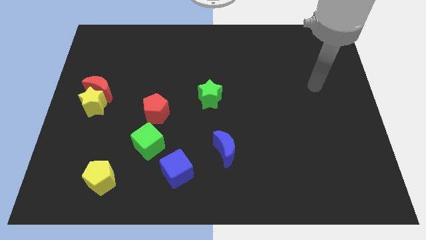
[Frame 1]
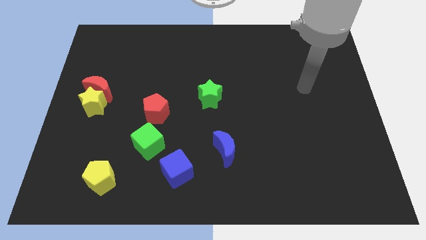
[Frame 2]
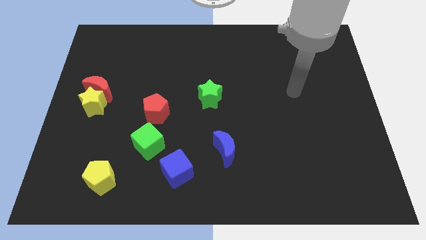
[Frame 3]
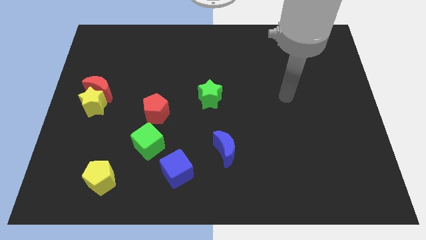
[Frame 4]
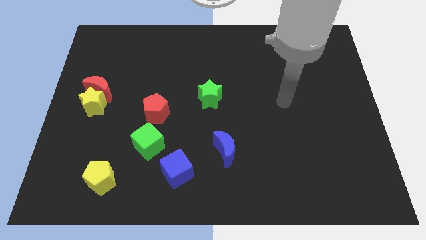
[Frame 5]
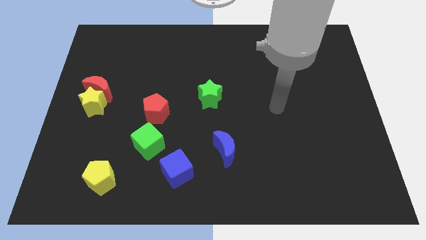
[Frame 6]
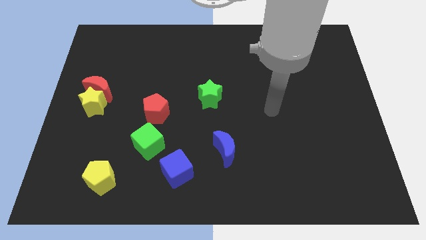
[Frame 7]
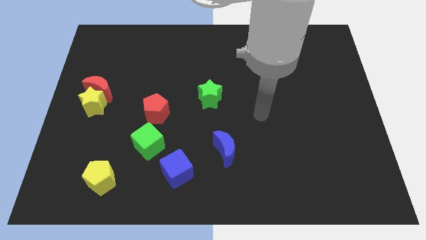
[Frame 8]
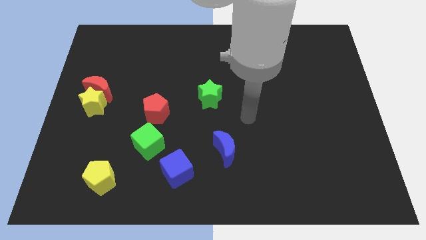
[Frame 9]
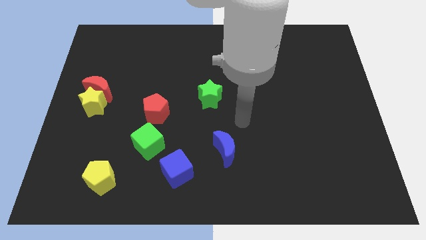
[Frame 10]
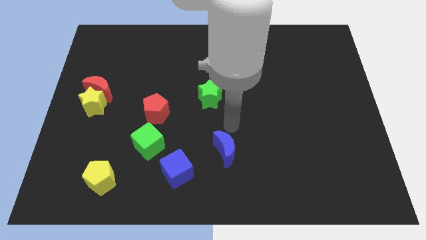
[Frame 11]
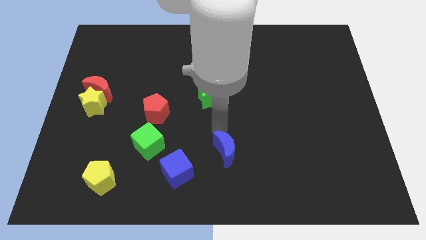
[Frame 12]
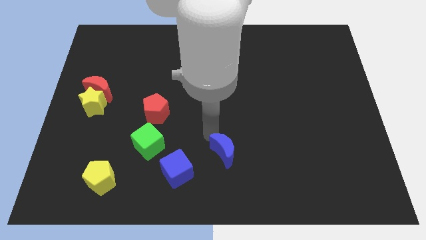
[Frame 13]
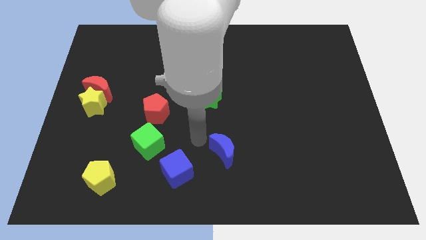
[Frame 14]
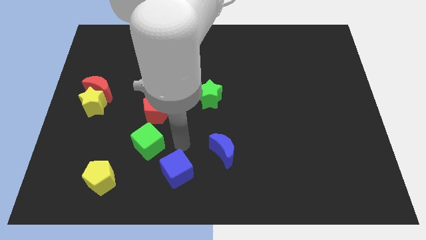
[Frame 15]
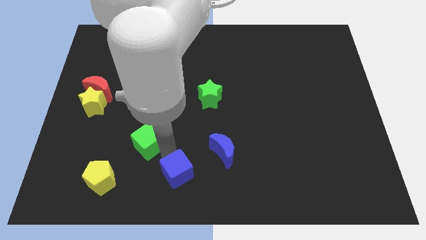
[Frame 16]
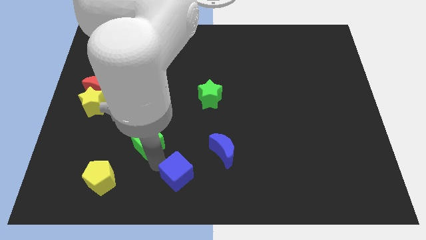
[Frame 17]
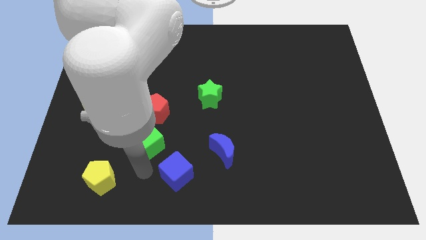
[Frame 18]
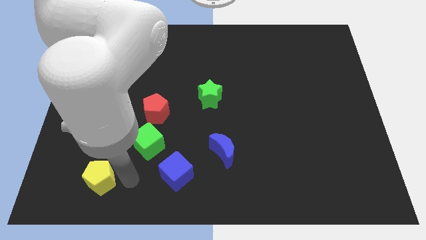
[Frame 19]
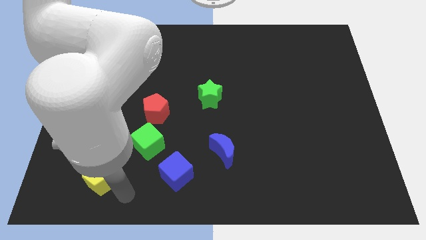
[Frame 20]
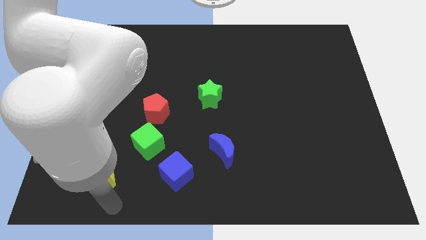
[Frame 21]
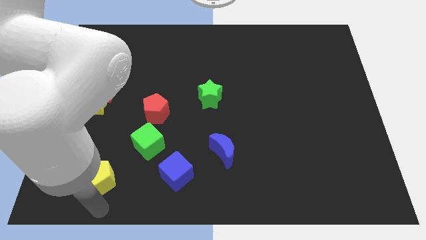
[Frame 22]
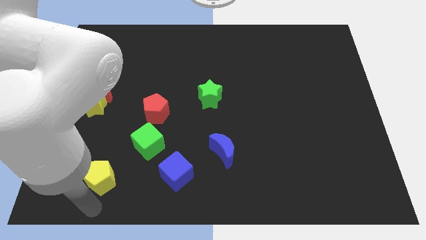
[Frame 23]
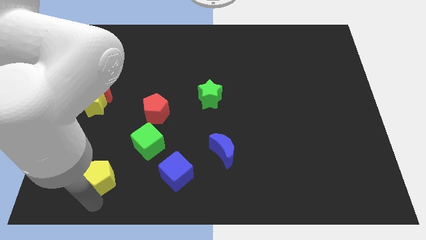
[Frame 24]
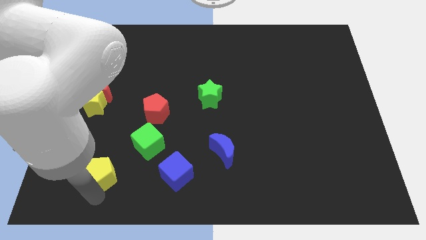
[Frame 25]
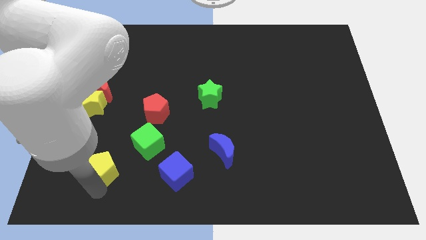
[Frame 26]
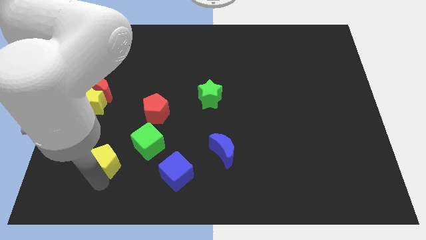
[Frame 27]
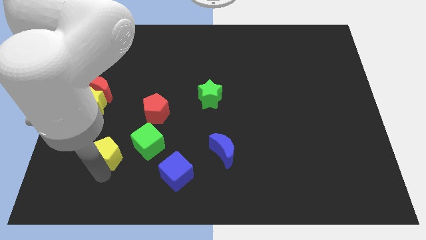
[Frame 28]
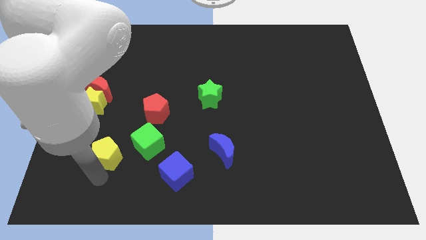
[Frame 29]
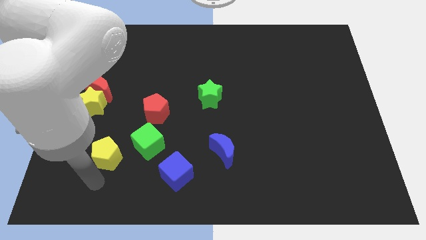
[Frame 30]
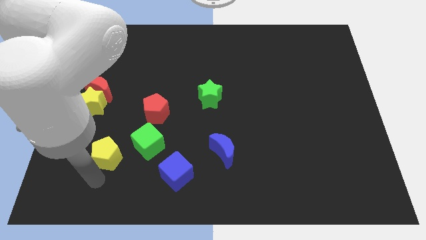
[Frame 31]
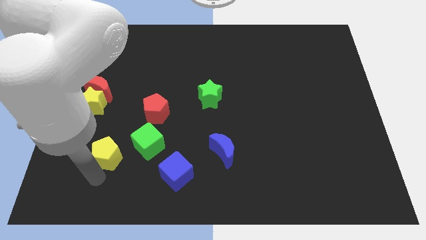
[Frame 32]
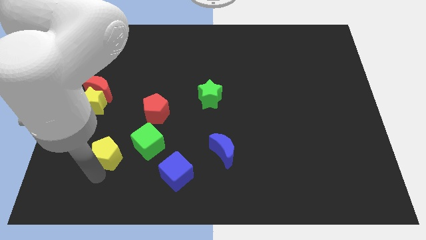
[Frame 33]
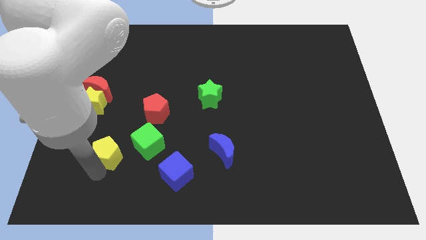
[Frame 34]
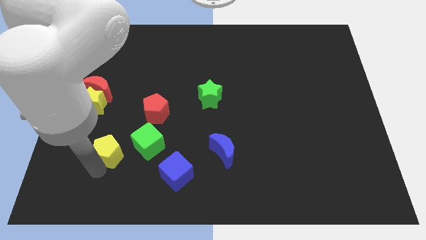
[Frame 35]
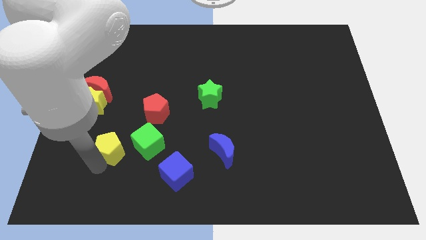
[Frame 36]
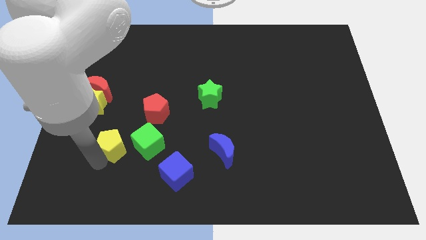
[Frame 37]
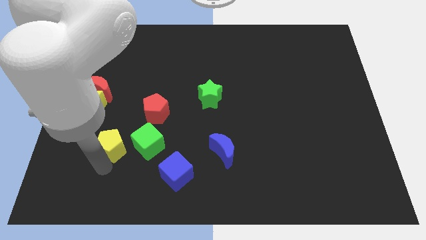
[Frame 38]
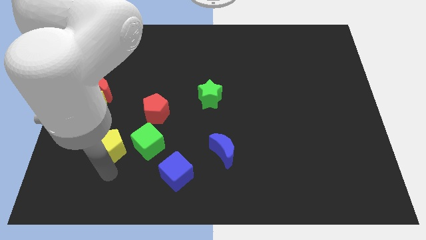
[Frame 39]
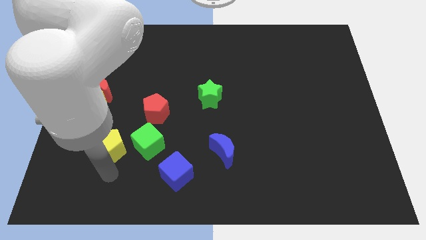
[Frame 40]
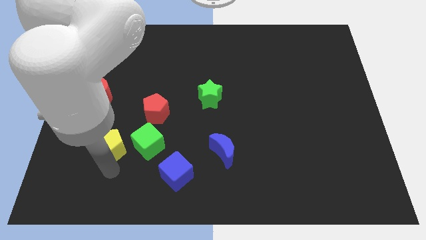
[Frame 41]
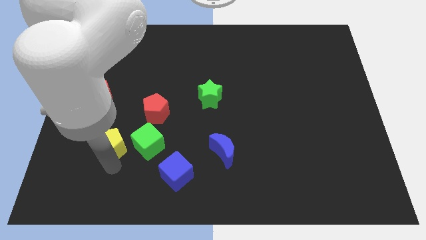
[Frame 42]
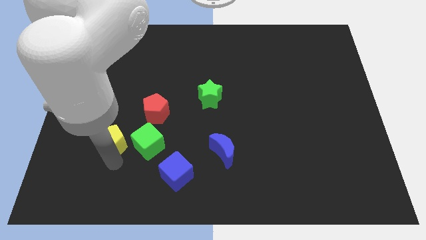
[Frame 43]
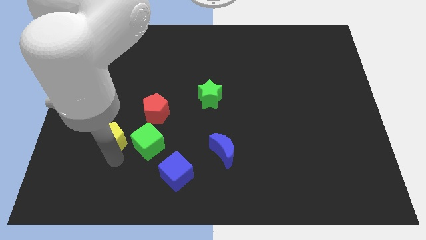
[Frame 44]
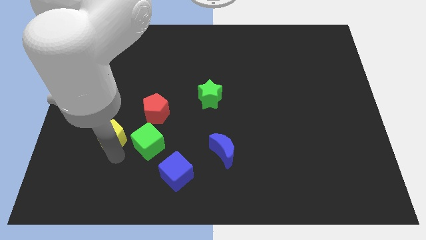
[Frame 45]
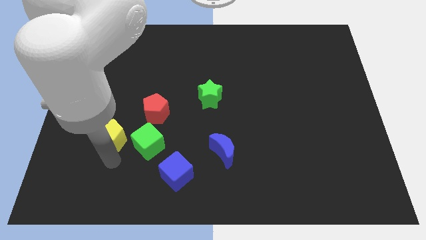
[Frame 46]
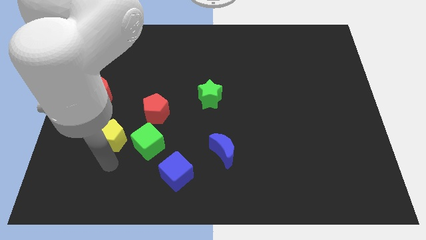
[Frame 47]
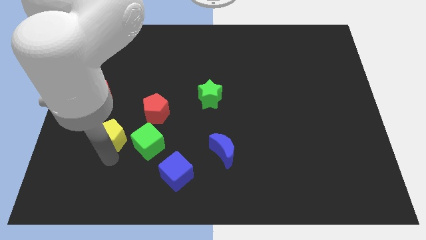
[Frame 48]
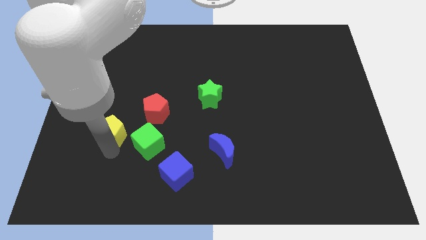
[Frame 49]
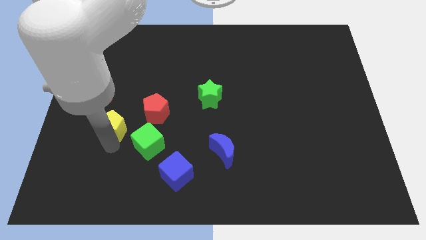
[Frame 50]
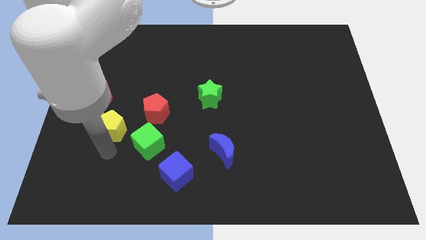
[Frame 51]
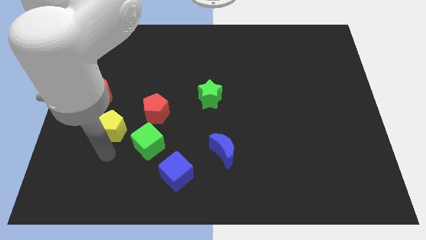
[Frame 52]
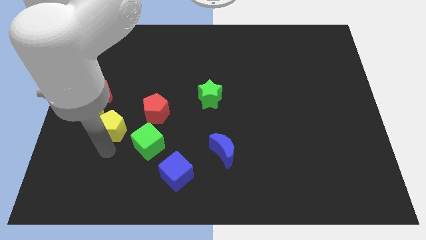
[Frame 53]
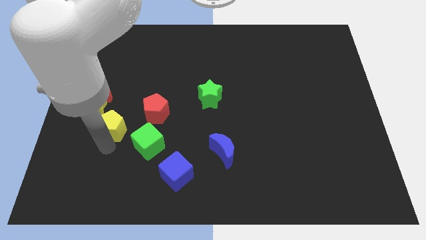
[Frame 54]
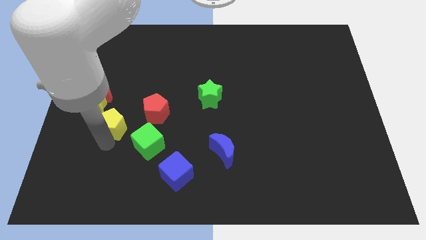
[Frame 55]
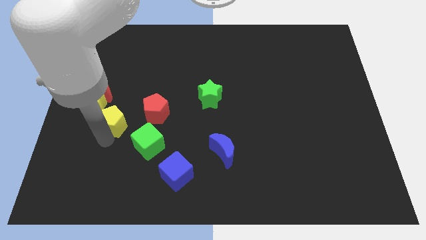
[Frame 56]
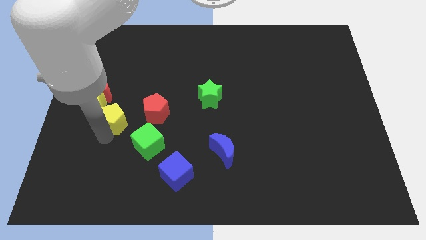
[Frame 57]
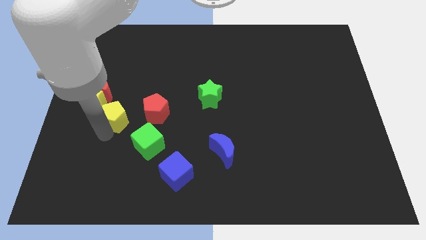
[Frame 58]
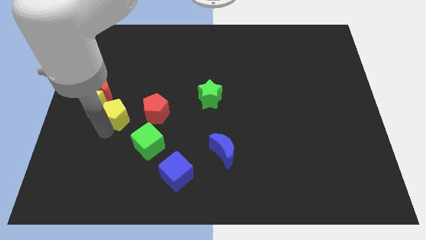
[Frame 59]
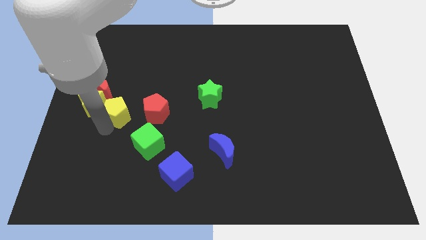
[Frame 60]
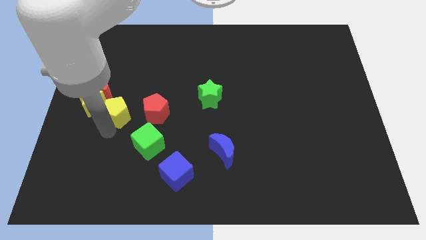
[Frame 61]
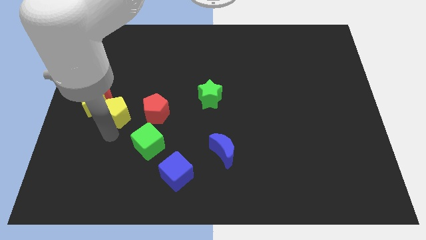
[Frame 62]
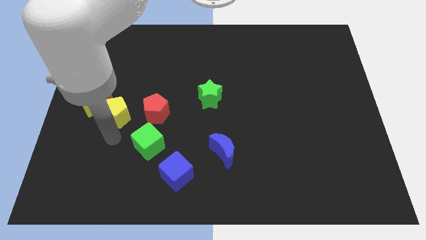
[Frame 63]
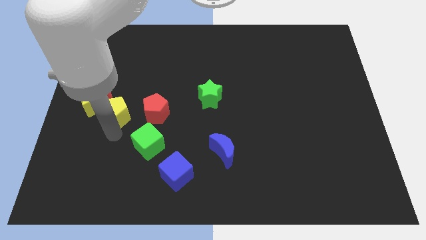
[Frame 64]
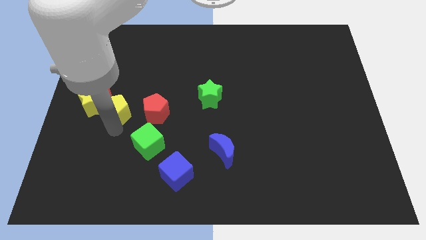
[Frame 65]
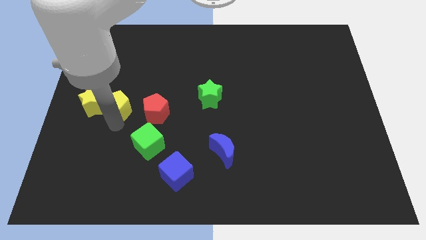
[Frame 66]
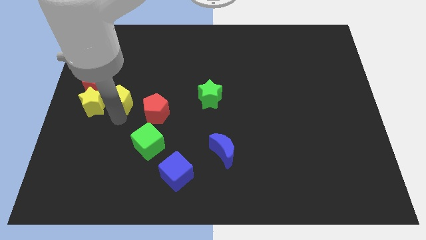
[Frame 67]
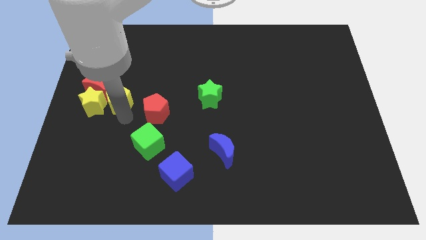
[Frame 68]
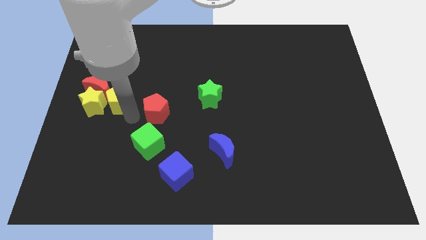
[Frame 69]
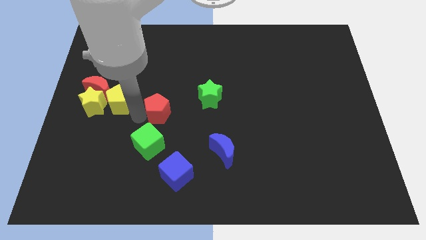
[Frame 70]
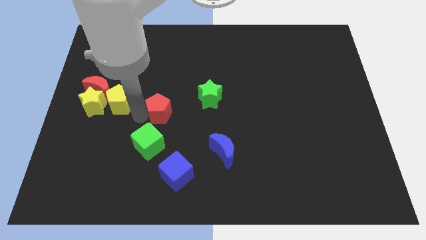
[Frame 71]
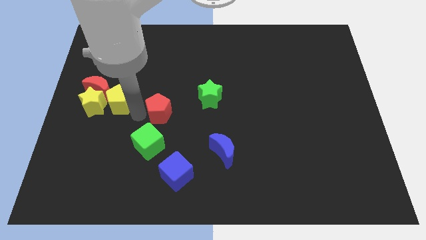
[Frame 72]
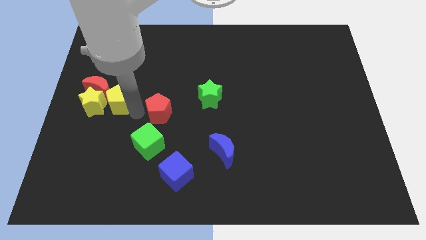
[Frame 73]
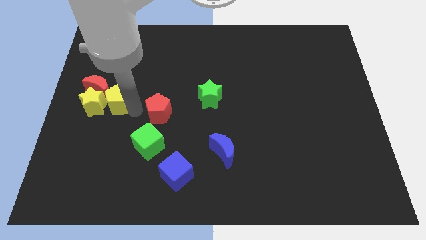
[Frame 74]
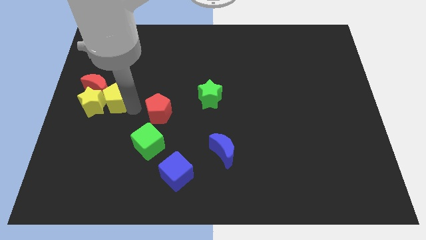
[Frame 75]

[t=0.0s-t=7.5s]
move the yellow pentagon next to the red moon

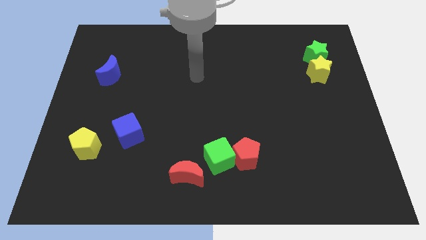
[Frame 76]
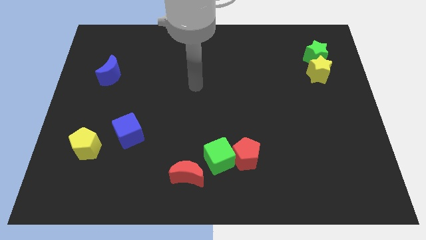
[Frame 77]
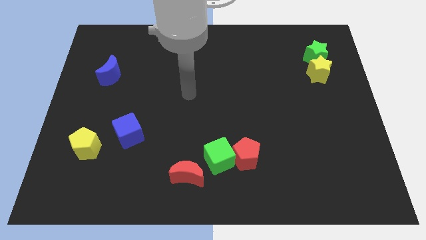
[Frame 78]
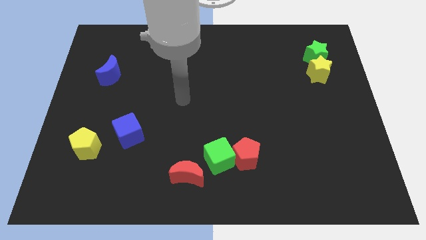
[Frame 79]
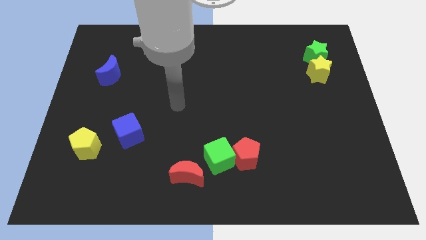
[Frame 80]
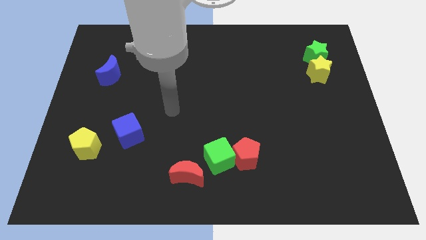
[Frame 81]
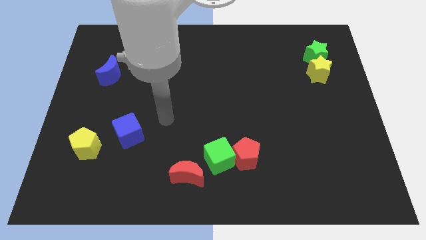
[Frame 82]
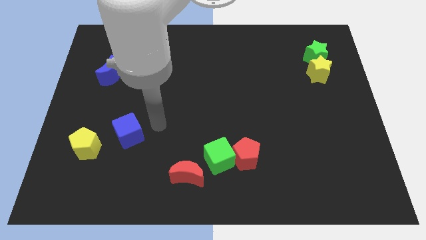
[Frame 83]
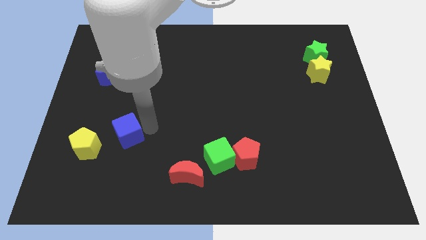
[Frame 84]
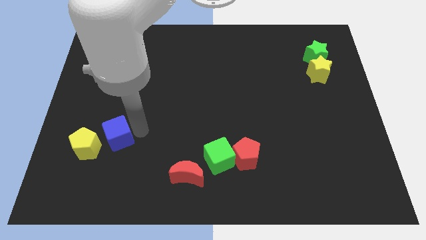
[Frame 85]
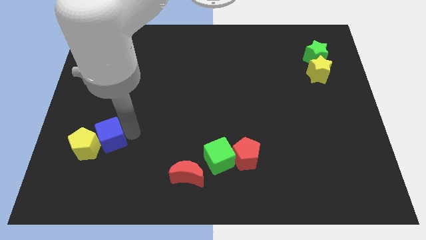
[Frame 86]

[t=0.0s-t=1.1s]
move the blue cube close to the yellow pentagon
